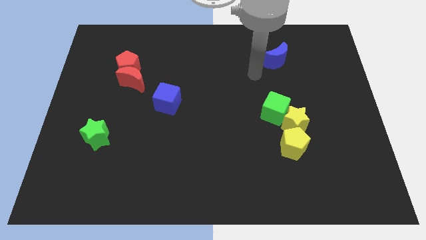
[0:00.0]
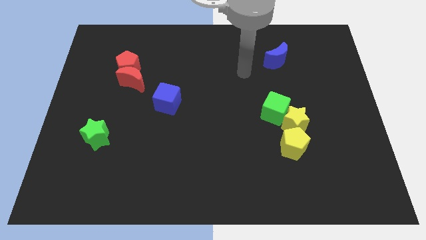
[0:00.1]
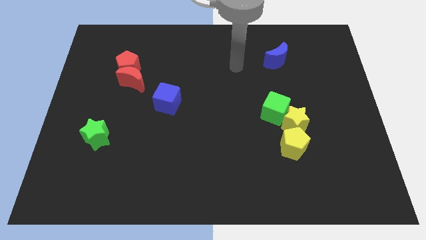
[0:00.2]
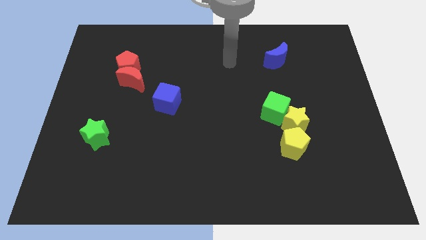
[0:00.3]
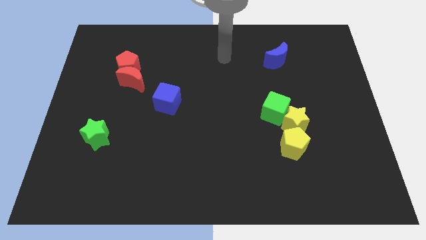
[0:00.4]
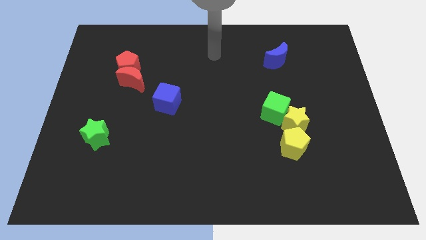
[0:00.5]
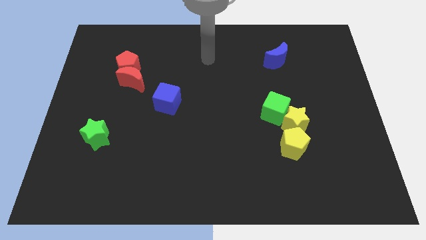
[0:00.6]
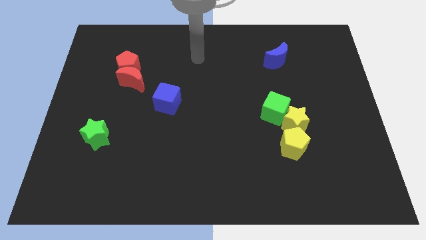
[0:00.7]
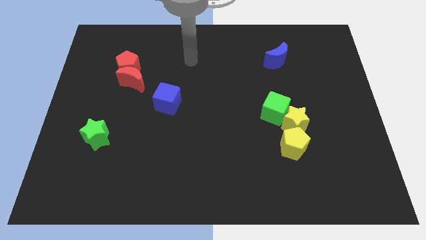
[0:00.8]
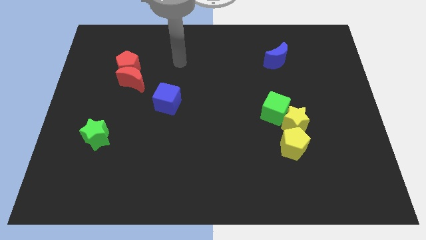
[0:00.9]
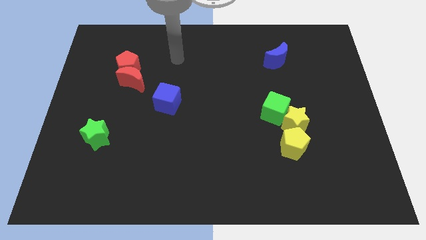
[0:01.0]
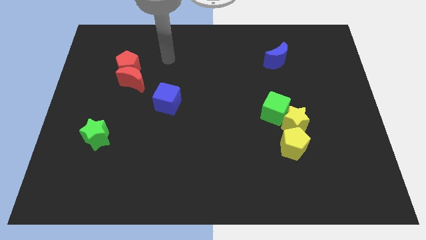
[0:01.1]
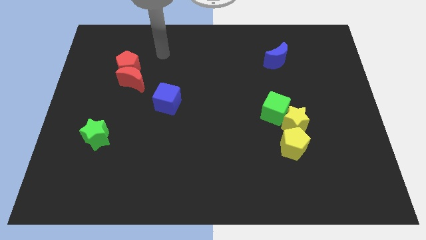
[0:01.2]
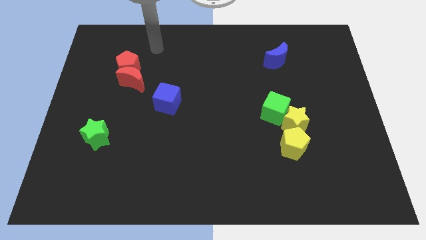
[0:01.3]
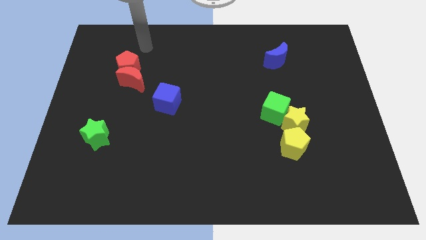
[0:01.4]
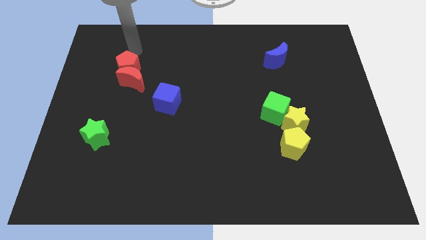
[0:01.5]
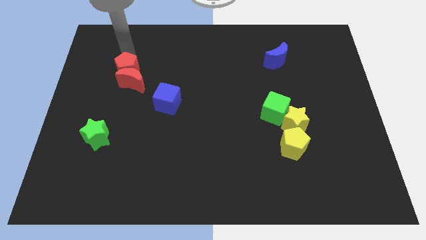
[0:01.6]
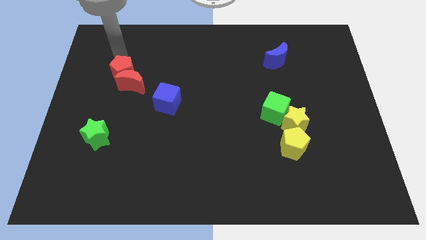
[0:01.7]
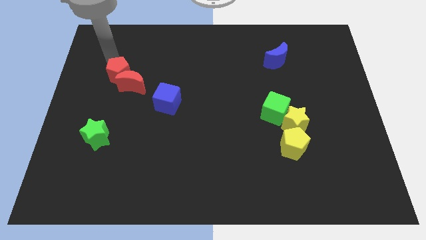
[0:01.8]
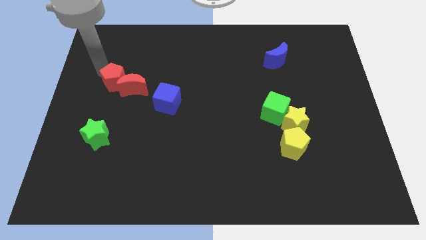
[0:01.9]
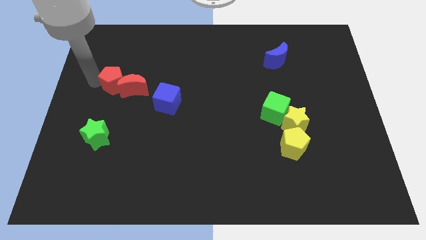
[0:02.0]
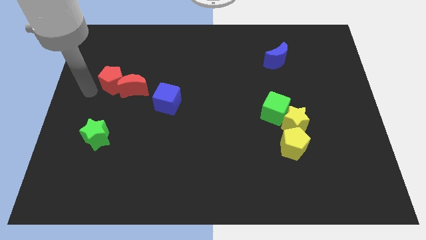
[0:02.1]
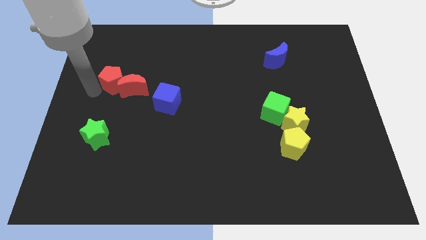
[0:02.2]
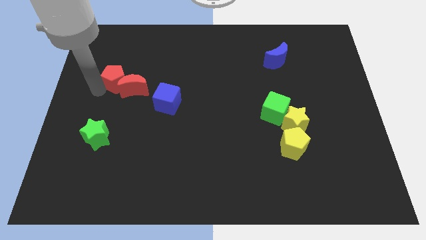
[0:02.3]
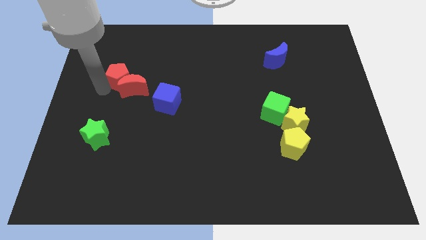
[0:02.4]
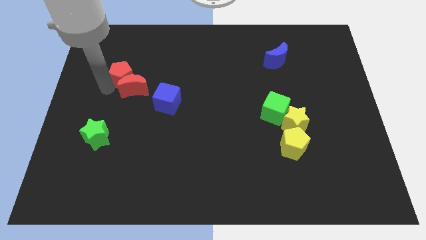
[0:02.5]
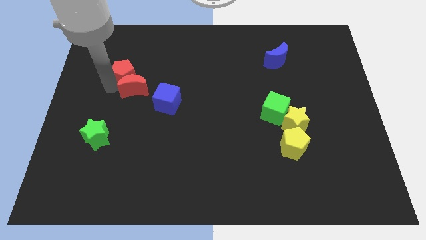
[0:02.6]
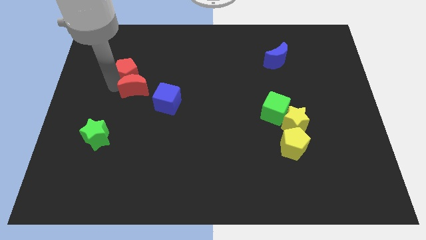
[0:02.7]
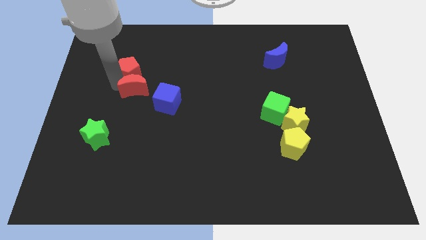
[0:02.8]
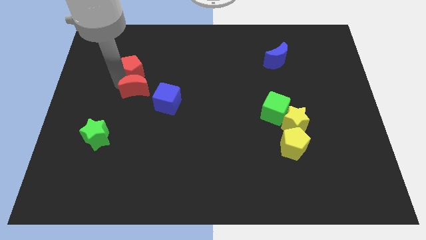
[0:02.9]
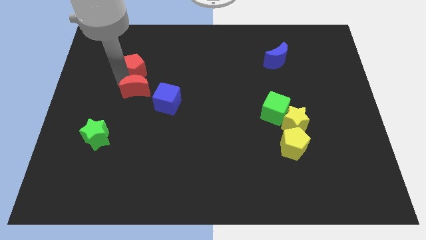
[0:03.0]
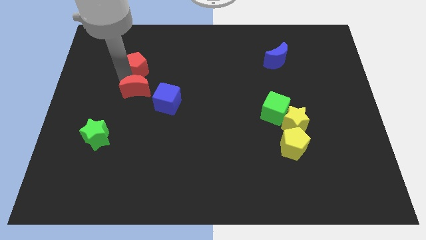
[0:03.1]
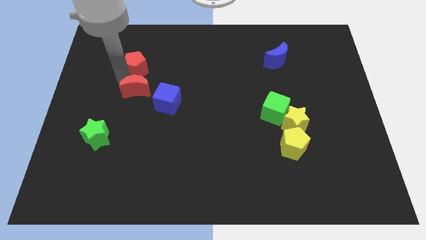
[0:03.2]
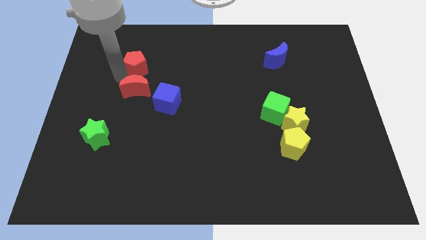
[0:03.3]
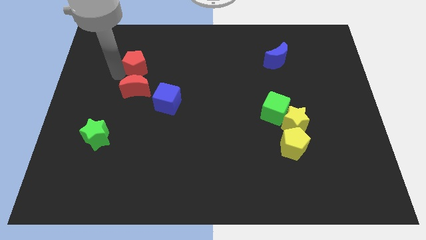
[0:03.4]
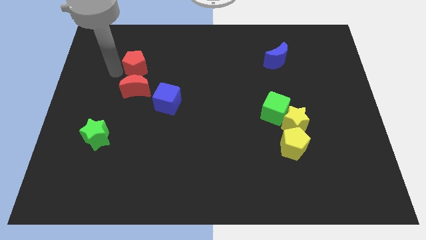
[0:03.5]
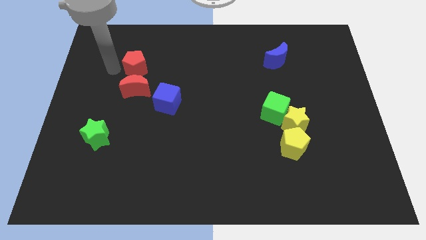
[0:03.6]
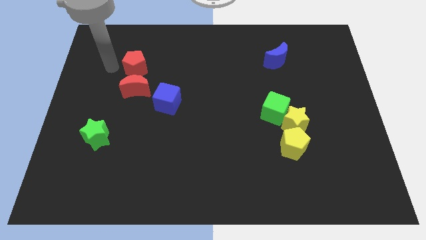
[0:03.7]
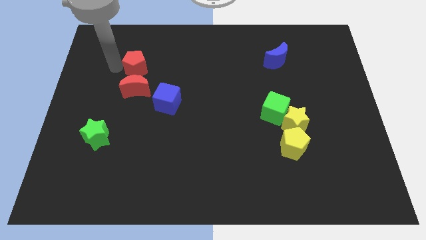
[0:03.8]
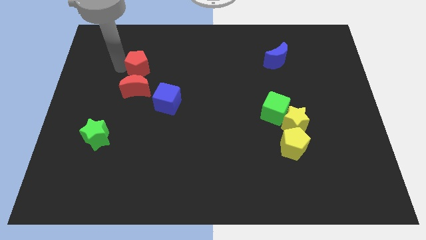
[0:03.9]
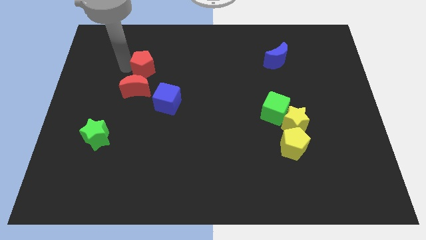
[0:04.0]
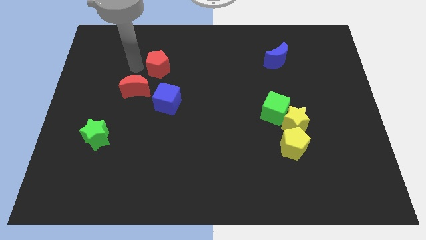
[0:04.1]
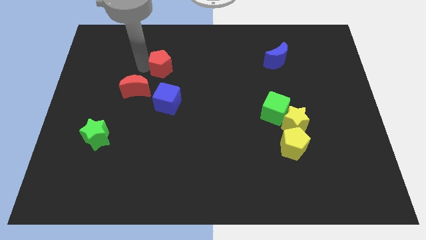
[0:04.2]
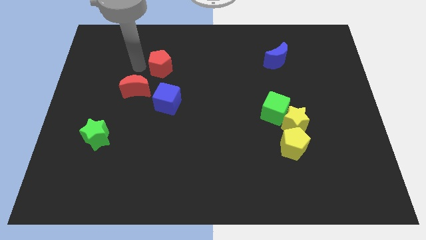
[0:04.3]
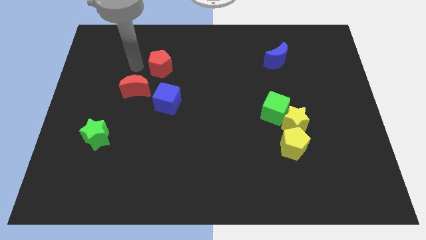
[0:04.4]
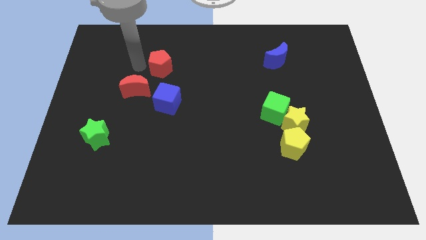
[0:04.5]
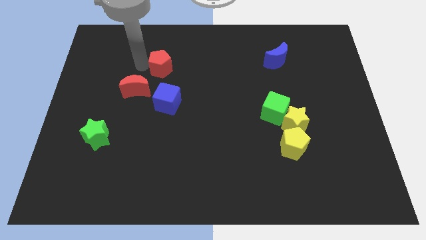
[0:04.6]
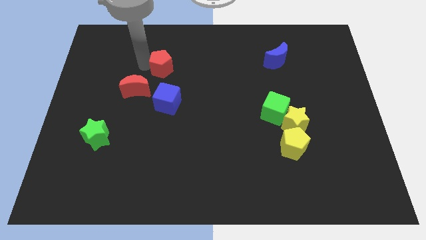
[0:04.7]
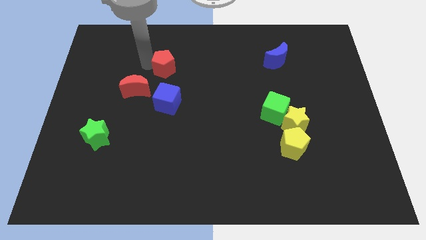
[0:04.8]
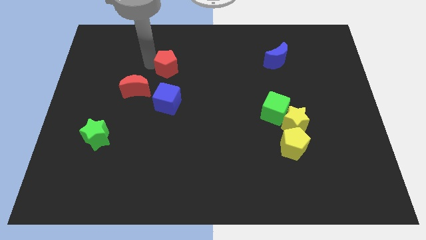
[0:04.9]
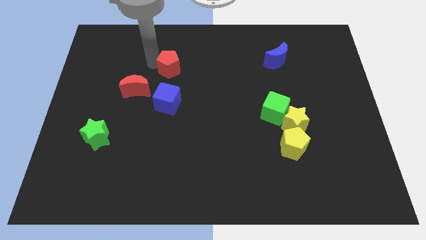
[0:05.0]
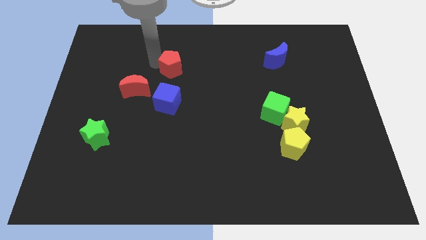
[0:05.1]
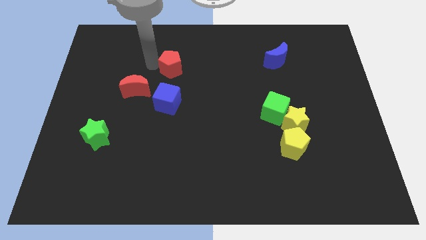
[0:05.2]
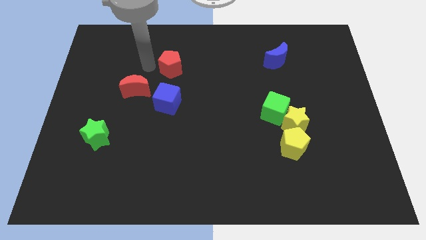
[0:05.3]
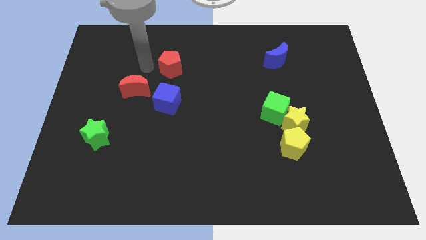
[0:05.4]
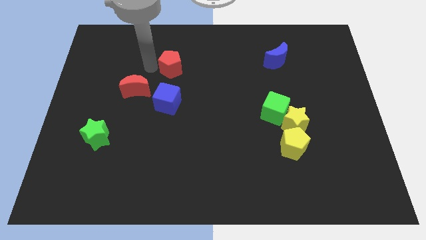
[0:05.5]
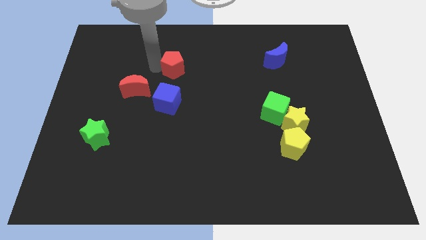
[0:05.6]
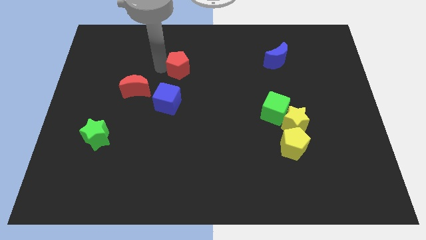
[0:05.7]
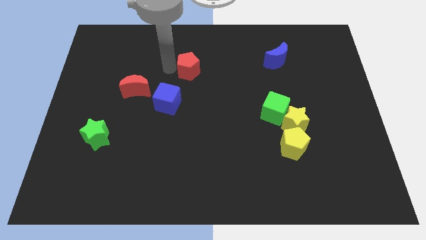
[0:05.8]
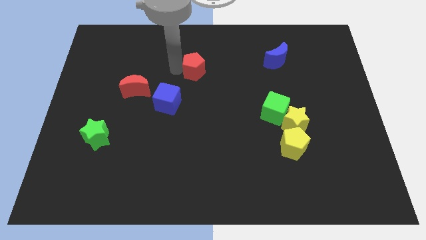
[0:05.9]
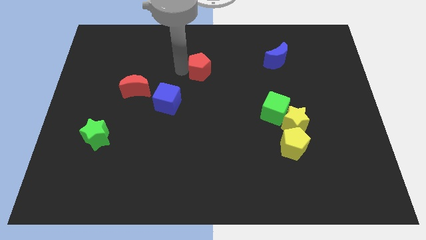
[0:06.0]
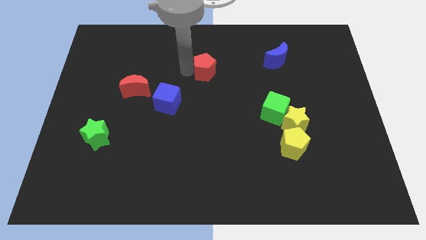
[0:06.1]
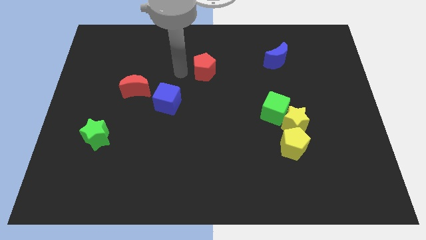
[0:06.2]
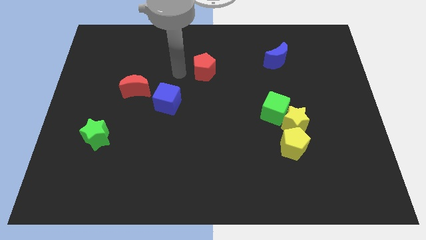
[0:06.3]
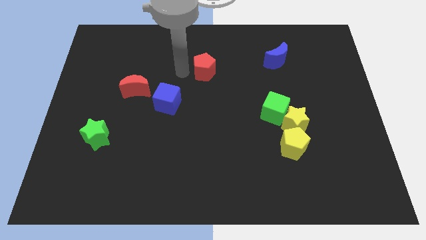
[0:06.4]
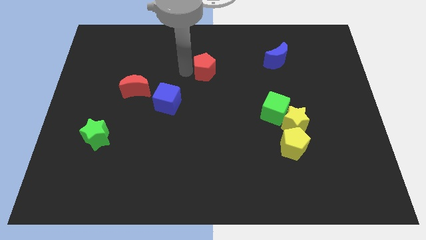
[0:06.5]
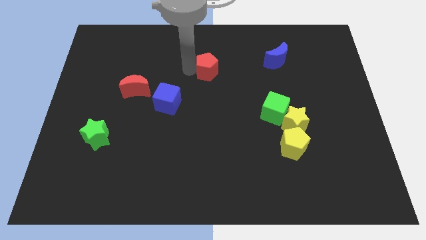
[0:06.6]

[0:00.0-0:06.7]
push the red pentagon right

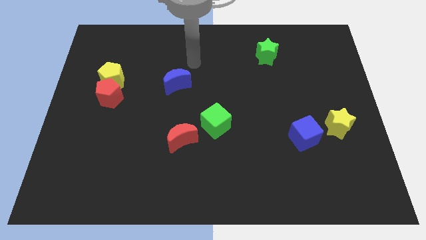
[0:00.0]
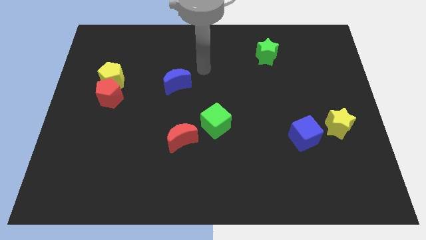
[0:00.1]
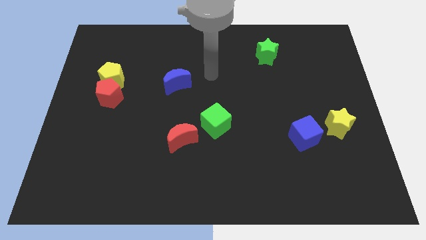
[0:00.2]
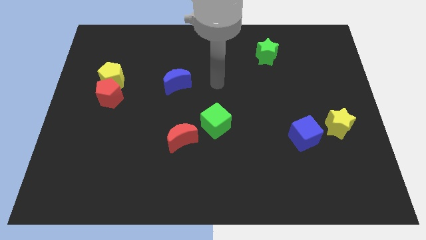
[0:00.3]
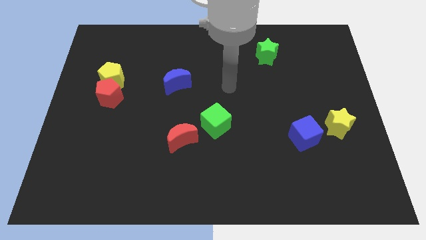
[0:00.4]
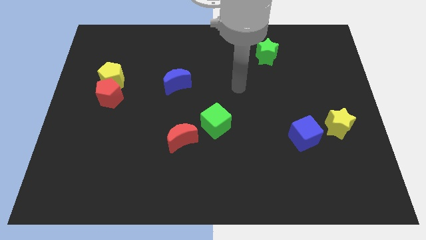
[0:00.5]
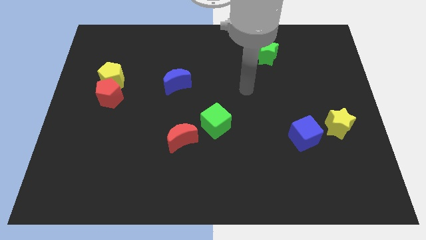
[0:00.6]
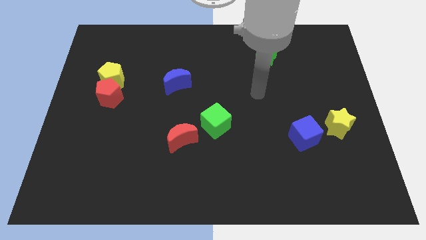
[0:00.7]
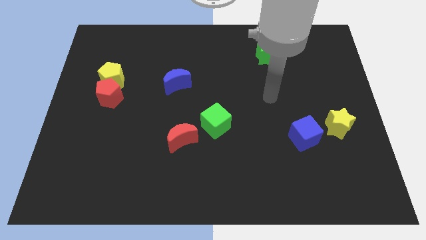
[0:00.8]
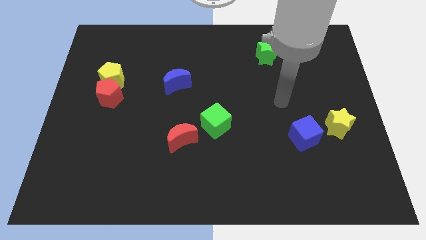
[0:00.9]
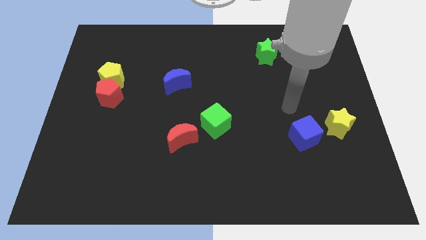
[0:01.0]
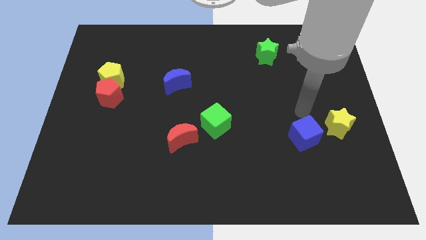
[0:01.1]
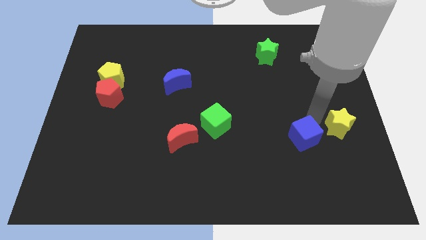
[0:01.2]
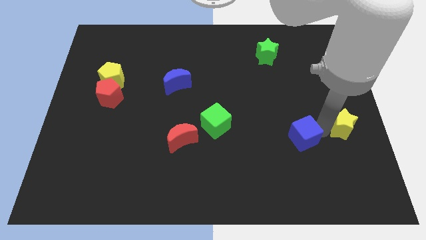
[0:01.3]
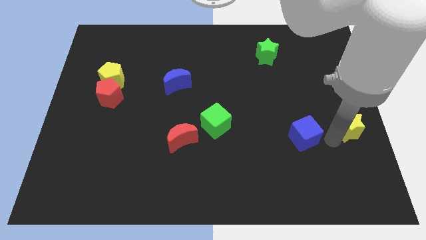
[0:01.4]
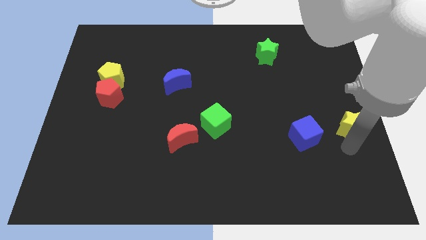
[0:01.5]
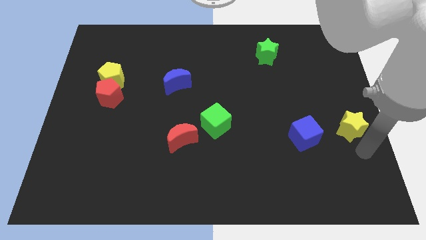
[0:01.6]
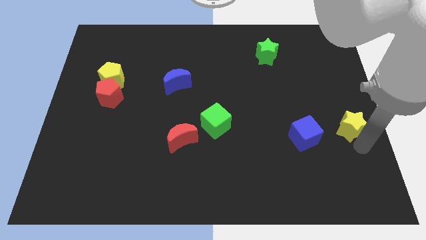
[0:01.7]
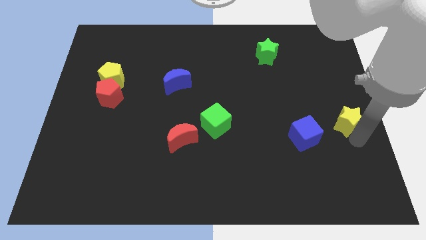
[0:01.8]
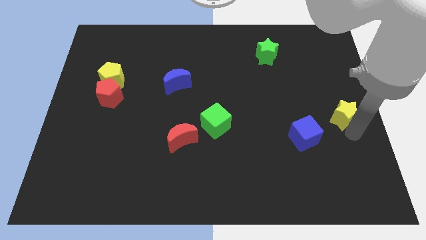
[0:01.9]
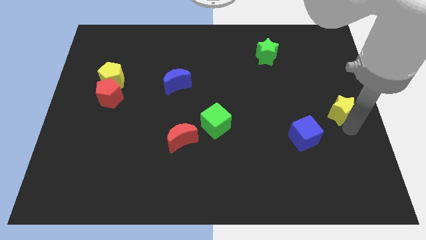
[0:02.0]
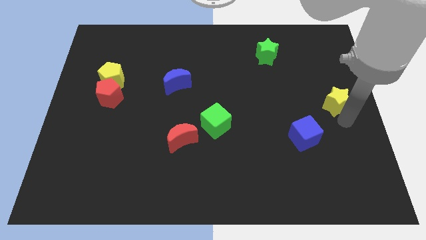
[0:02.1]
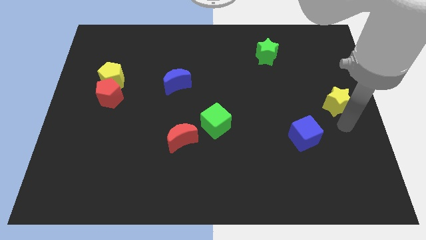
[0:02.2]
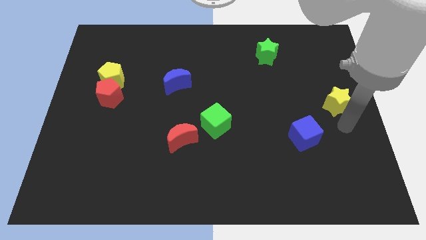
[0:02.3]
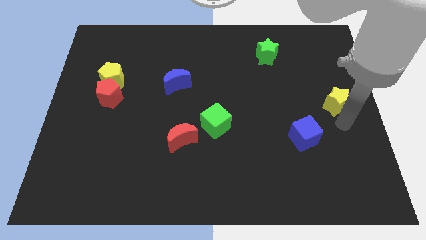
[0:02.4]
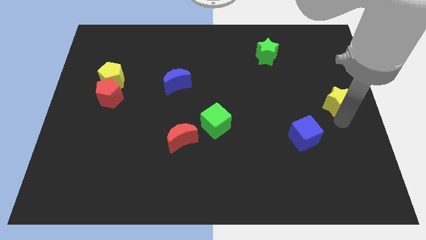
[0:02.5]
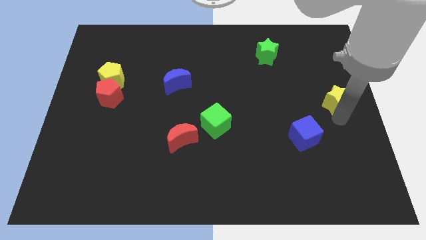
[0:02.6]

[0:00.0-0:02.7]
slide the yellow star upwards a little bit
